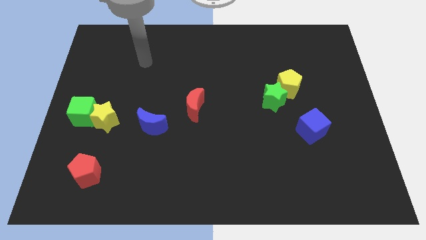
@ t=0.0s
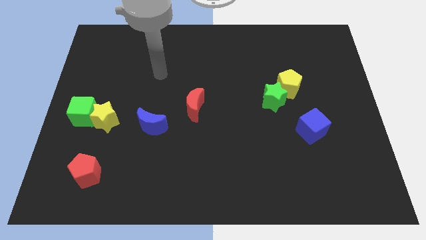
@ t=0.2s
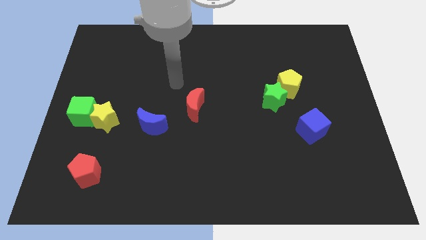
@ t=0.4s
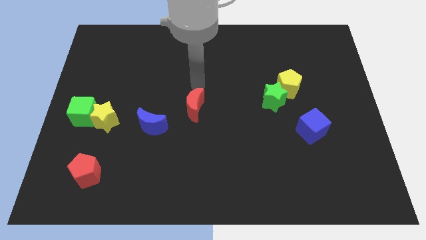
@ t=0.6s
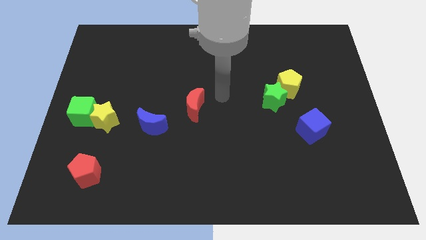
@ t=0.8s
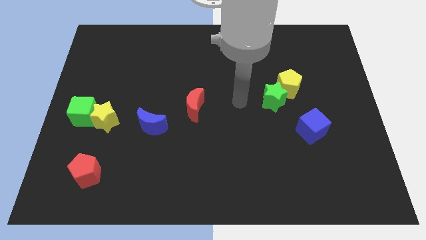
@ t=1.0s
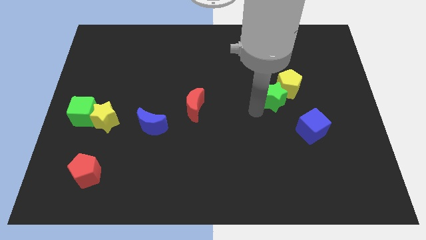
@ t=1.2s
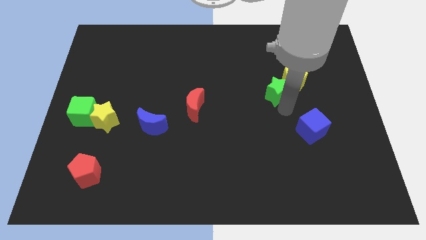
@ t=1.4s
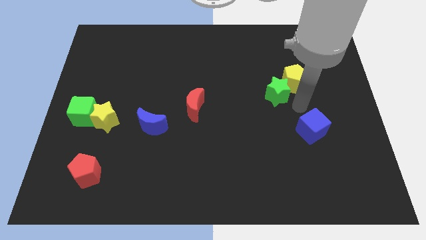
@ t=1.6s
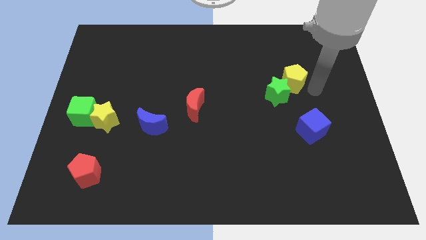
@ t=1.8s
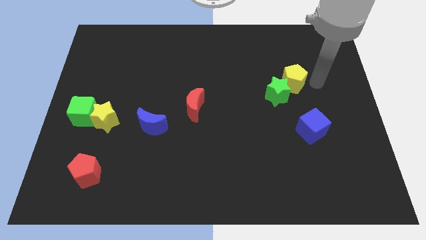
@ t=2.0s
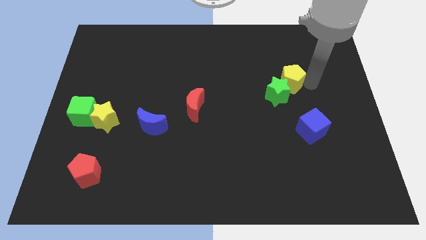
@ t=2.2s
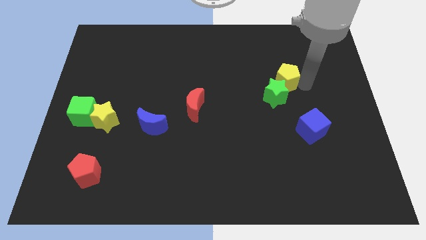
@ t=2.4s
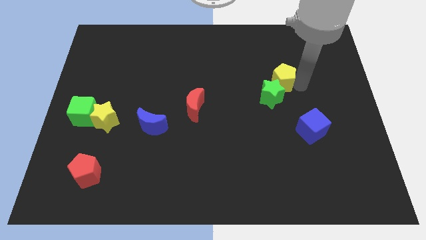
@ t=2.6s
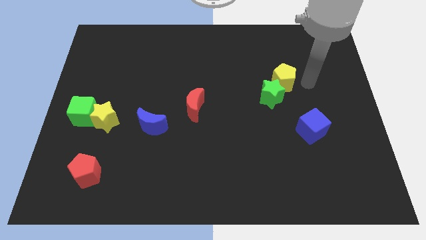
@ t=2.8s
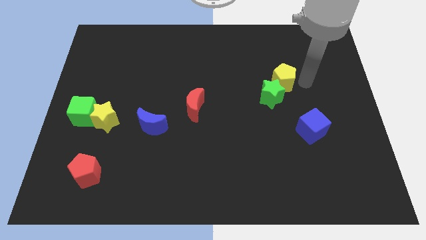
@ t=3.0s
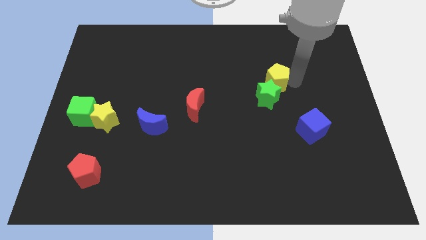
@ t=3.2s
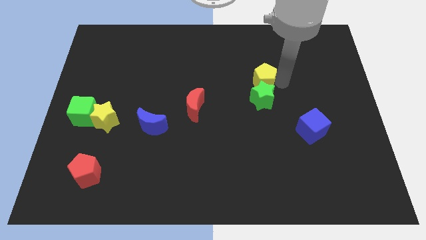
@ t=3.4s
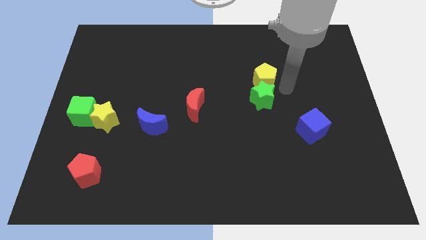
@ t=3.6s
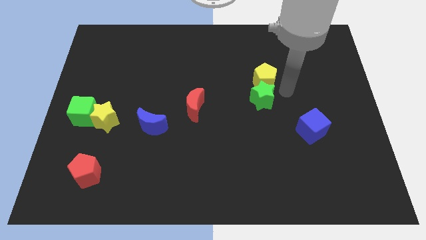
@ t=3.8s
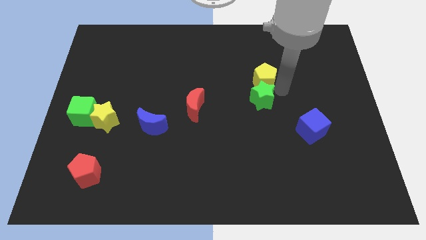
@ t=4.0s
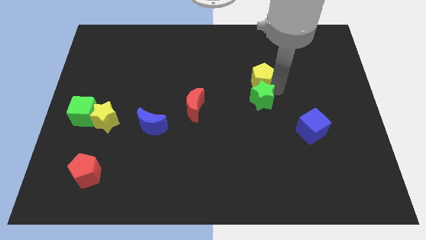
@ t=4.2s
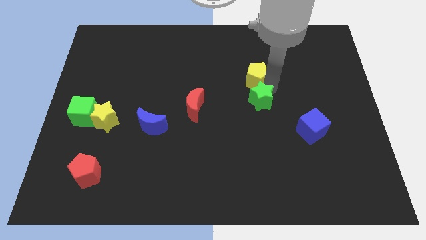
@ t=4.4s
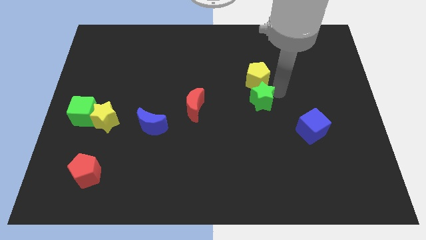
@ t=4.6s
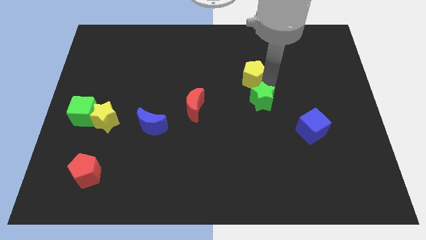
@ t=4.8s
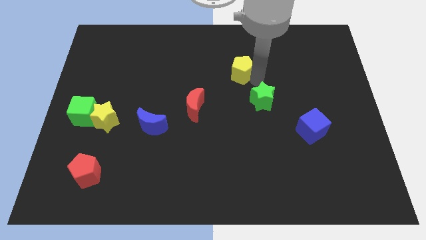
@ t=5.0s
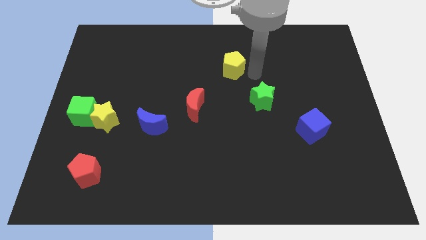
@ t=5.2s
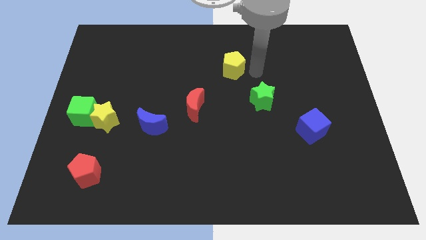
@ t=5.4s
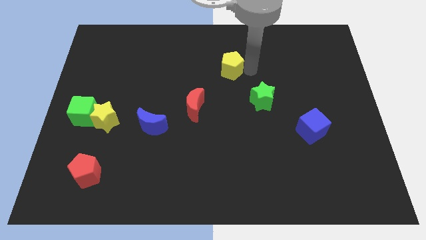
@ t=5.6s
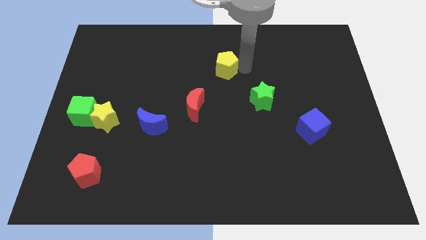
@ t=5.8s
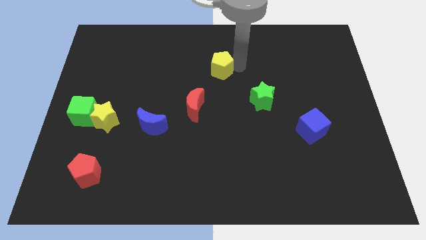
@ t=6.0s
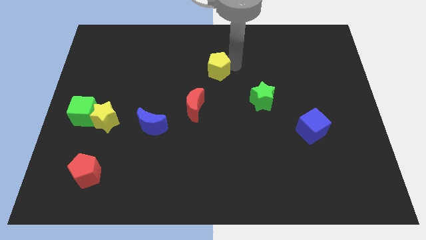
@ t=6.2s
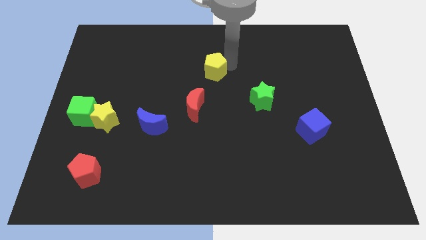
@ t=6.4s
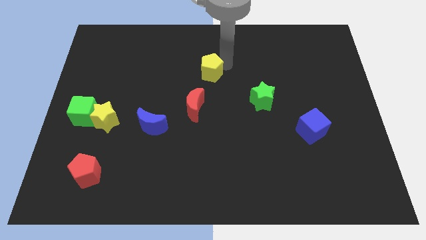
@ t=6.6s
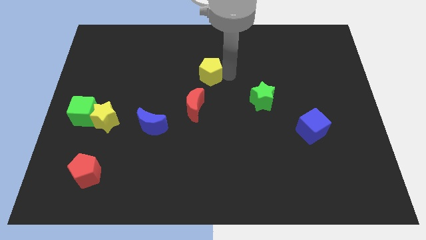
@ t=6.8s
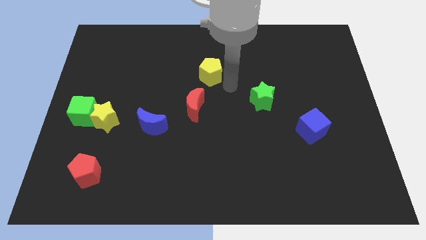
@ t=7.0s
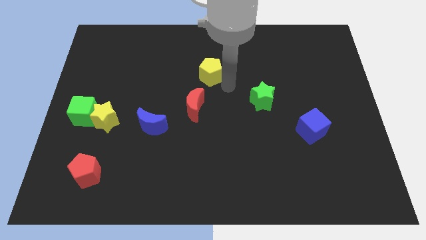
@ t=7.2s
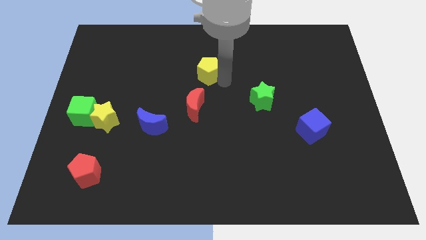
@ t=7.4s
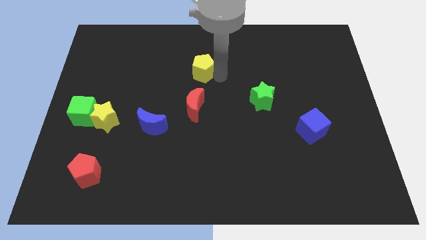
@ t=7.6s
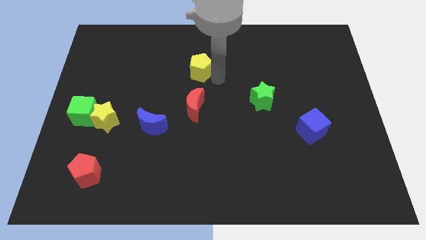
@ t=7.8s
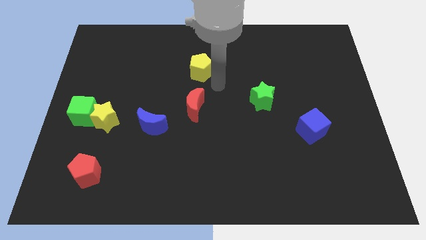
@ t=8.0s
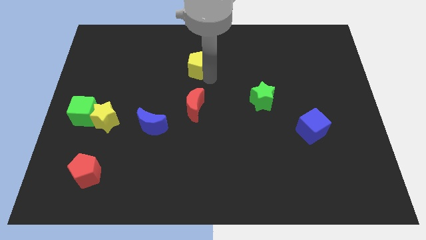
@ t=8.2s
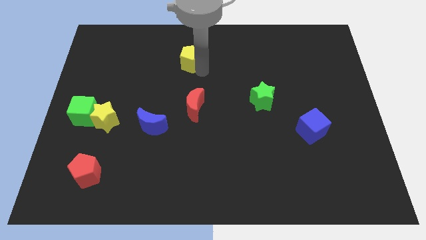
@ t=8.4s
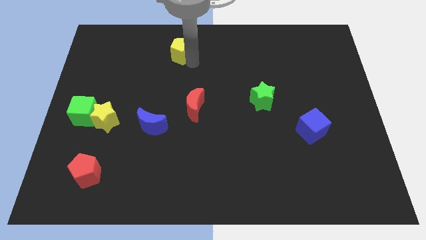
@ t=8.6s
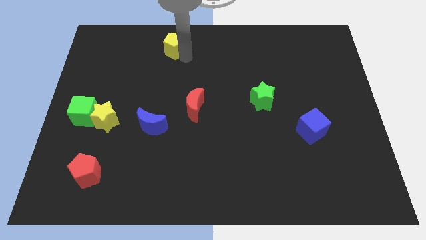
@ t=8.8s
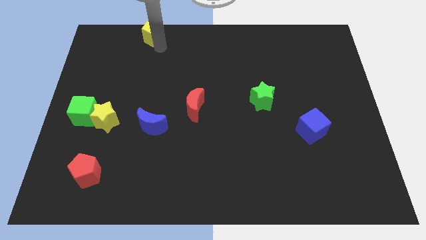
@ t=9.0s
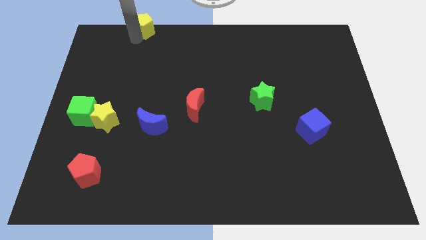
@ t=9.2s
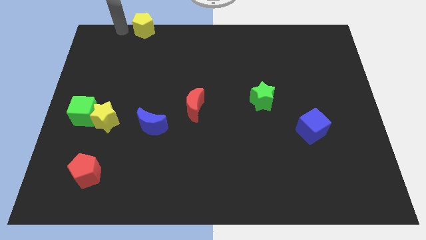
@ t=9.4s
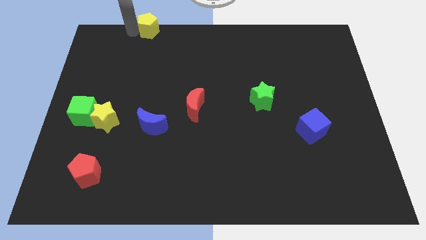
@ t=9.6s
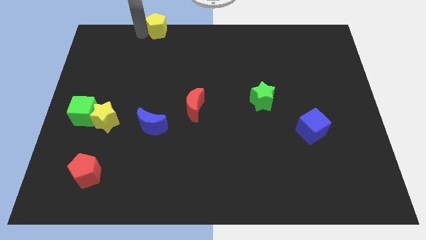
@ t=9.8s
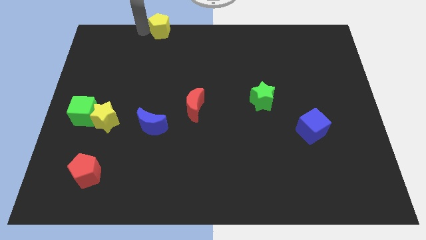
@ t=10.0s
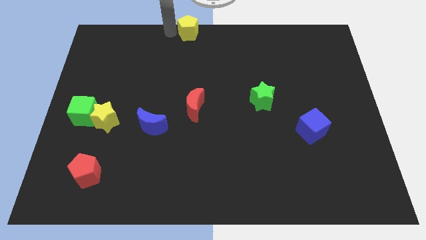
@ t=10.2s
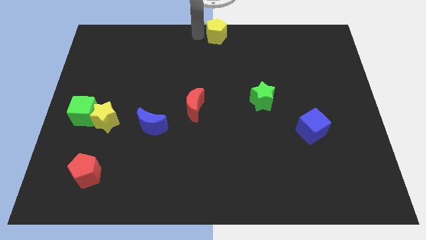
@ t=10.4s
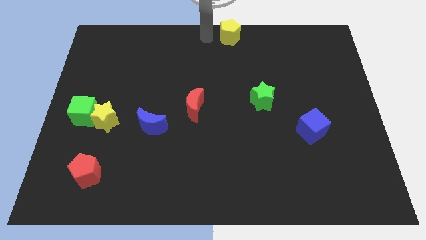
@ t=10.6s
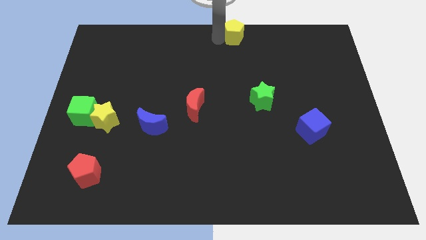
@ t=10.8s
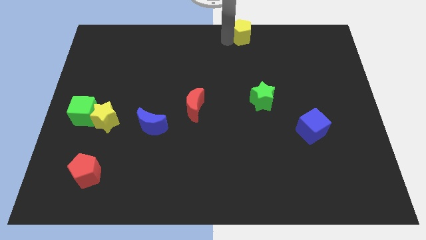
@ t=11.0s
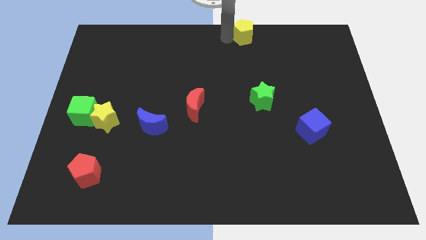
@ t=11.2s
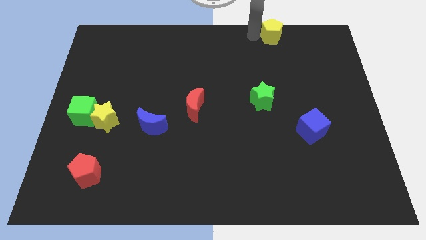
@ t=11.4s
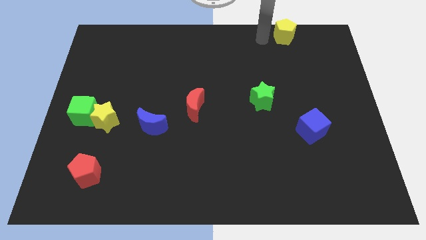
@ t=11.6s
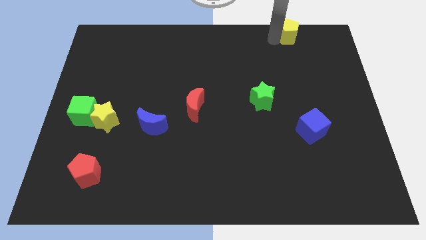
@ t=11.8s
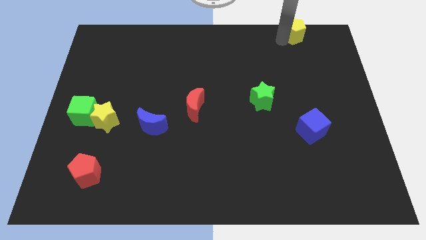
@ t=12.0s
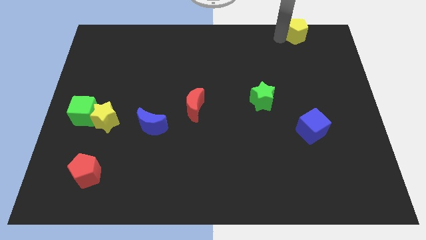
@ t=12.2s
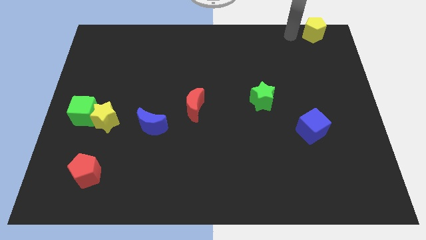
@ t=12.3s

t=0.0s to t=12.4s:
push the yellow pentagon to the top right of the board

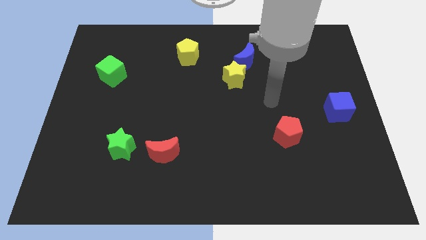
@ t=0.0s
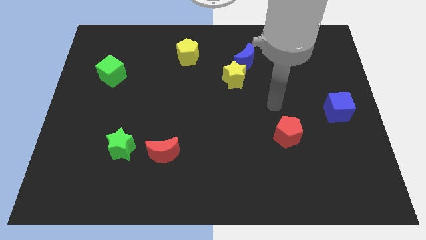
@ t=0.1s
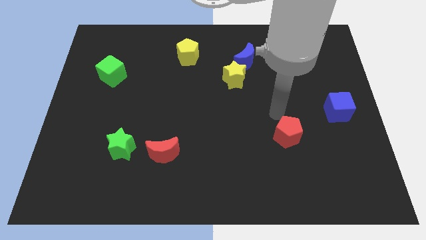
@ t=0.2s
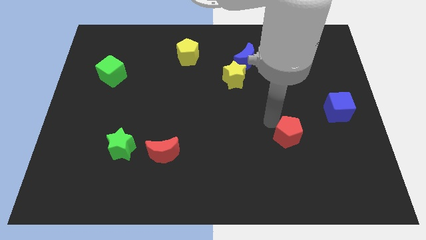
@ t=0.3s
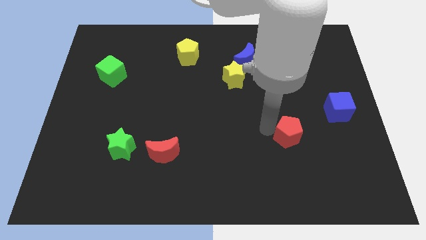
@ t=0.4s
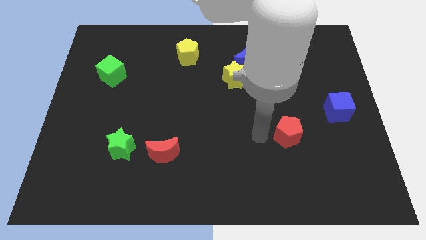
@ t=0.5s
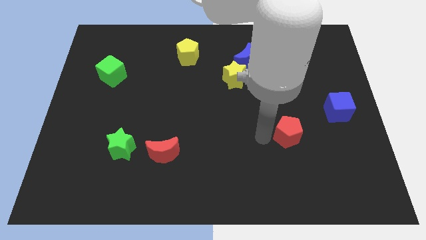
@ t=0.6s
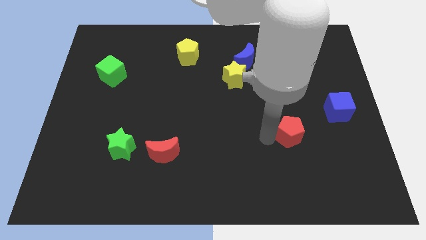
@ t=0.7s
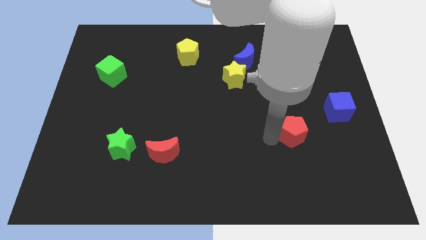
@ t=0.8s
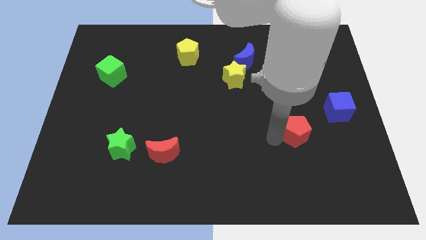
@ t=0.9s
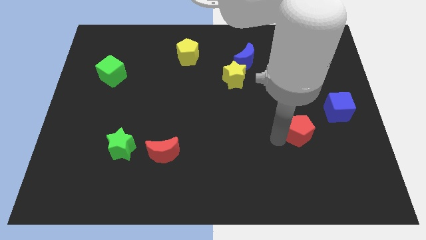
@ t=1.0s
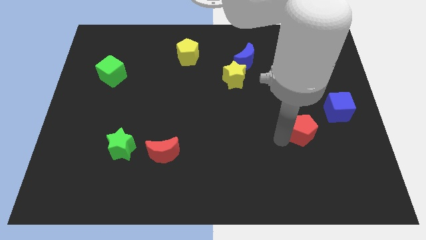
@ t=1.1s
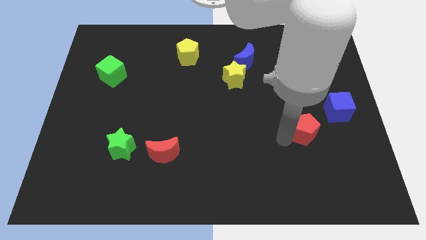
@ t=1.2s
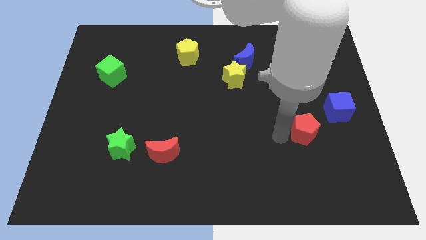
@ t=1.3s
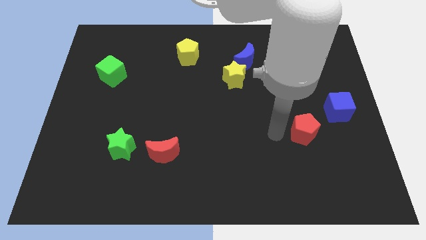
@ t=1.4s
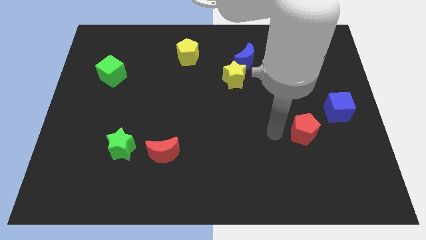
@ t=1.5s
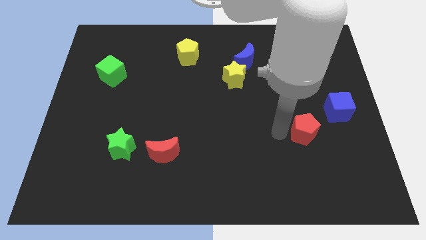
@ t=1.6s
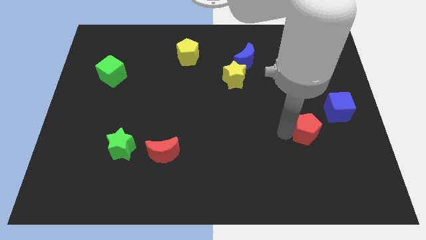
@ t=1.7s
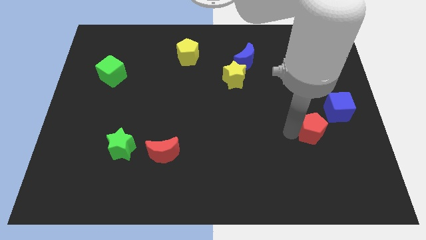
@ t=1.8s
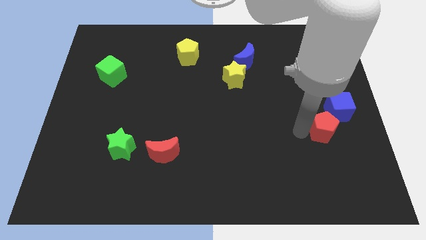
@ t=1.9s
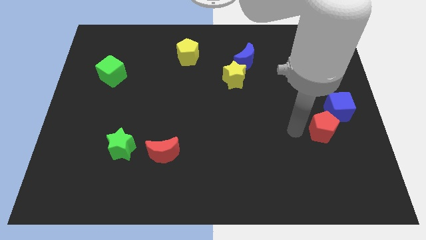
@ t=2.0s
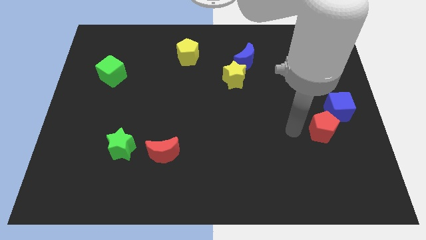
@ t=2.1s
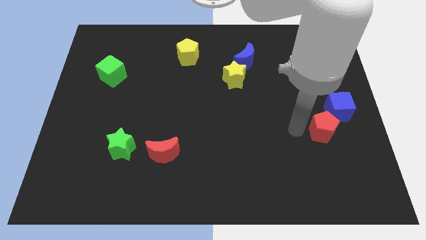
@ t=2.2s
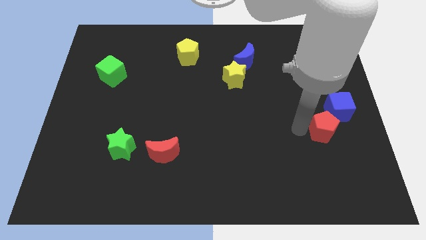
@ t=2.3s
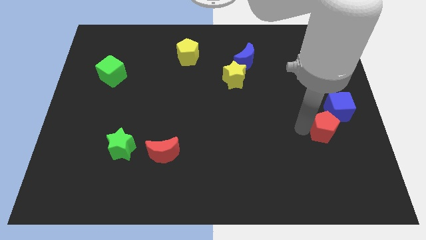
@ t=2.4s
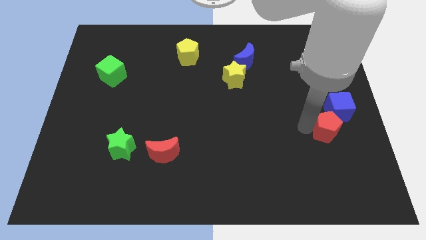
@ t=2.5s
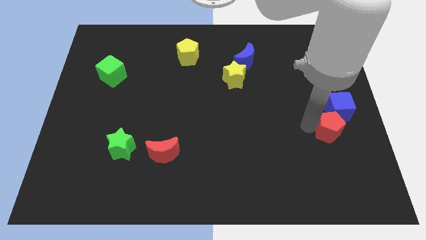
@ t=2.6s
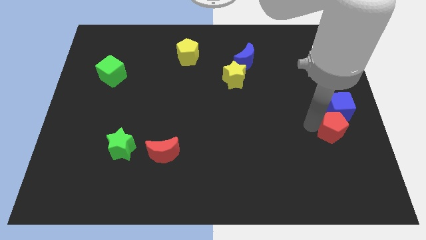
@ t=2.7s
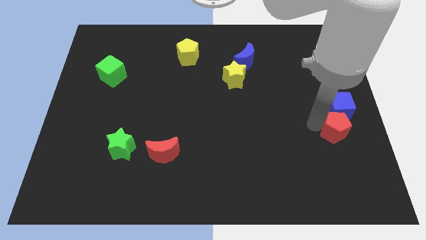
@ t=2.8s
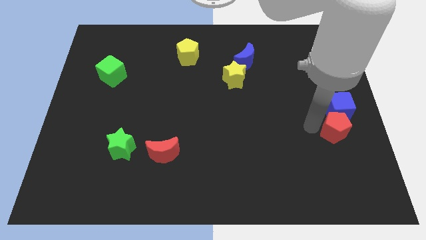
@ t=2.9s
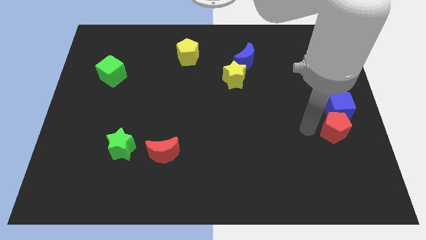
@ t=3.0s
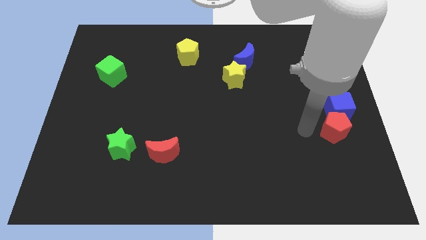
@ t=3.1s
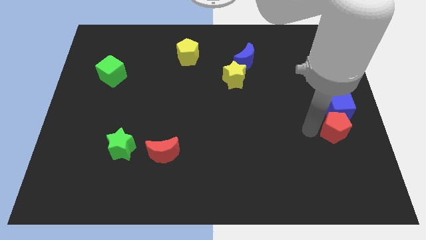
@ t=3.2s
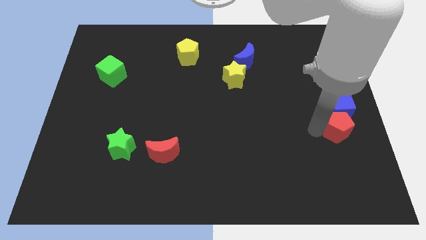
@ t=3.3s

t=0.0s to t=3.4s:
put the red pentagon to the right side
